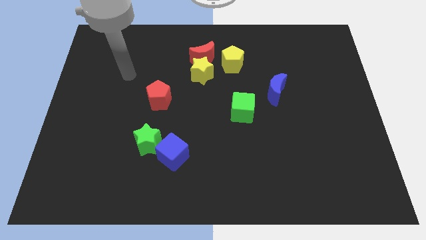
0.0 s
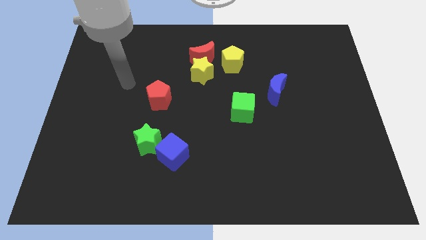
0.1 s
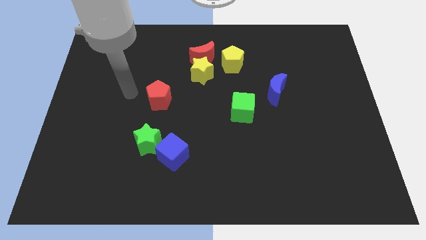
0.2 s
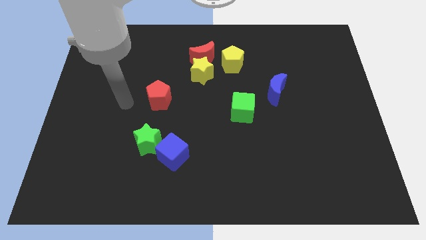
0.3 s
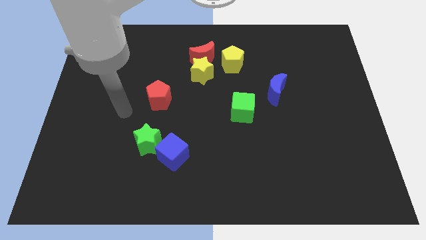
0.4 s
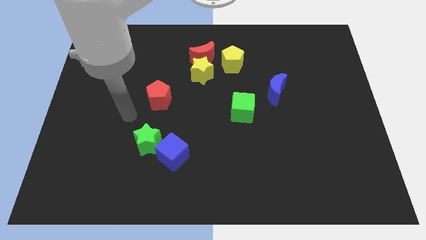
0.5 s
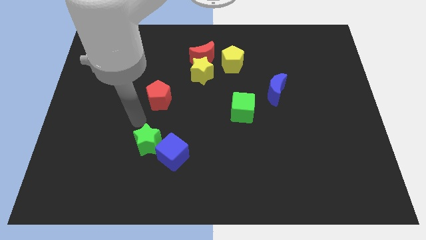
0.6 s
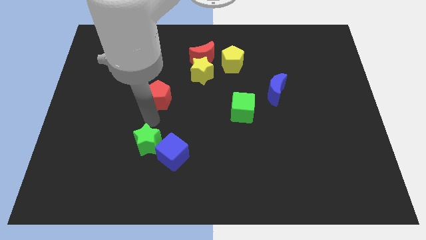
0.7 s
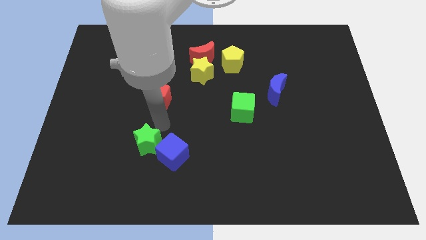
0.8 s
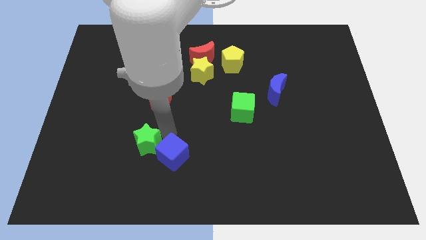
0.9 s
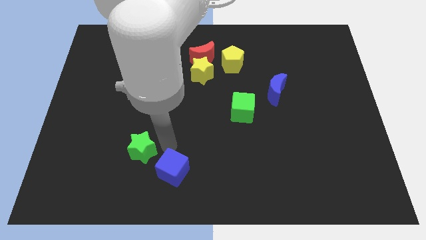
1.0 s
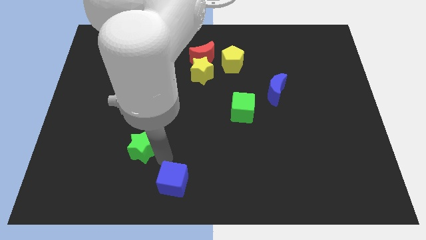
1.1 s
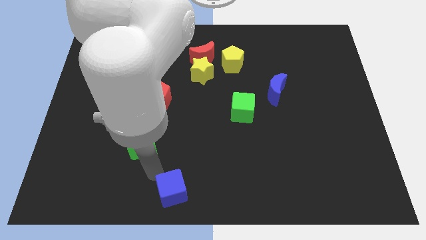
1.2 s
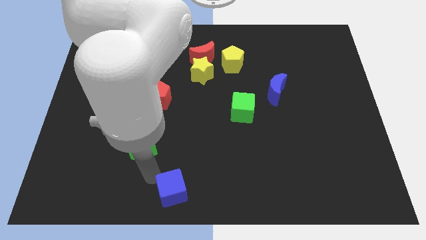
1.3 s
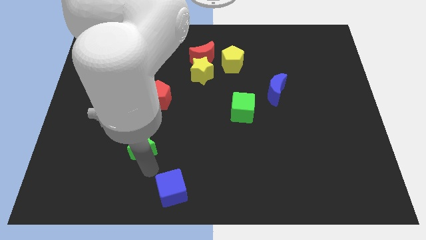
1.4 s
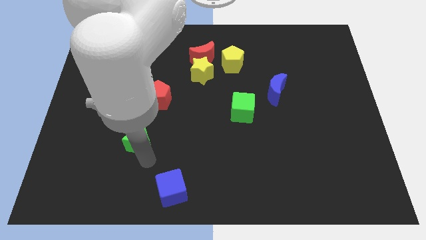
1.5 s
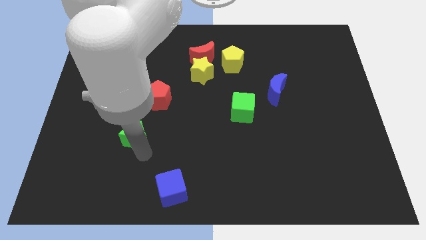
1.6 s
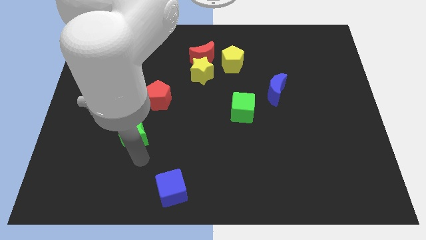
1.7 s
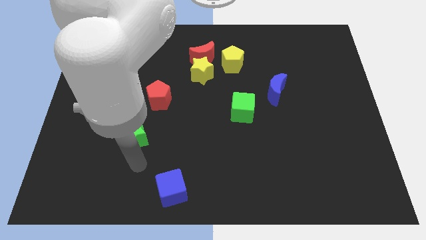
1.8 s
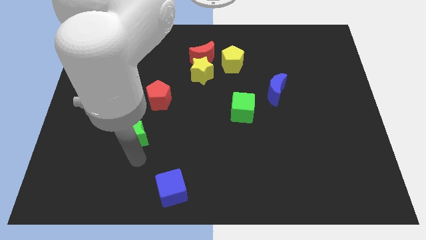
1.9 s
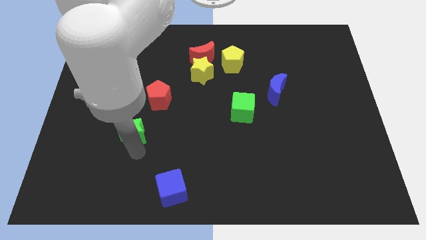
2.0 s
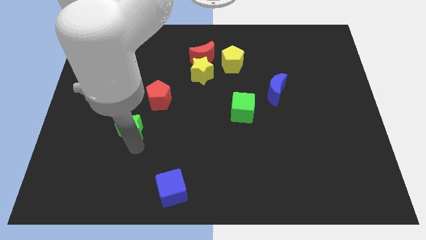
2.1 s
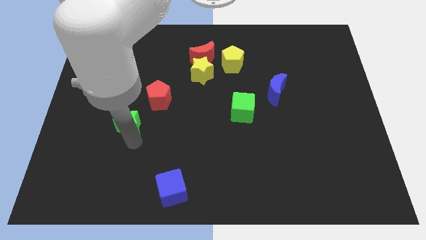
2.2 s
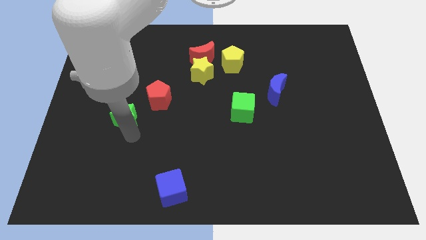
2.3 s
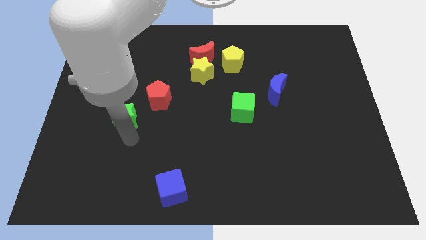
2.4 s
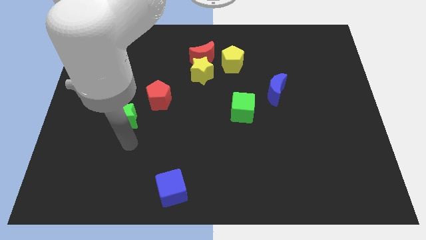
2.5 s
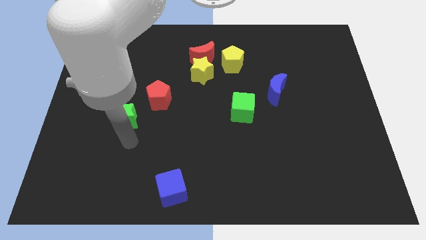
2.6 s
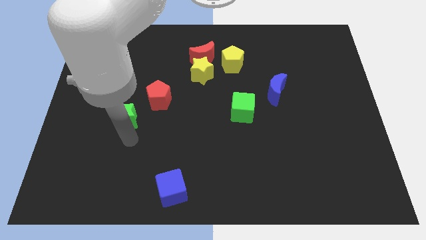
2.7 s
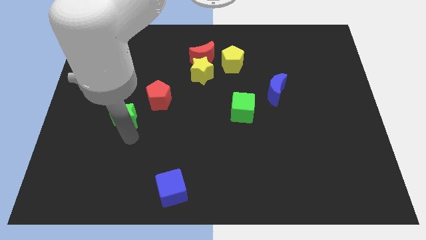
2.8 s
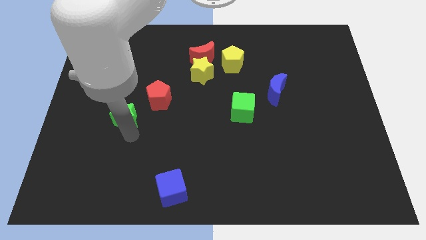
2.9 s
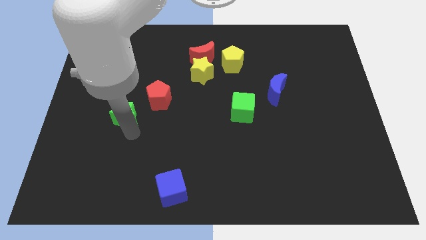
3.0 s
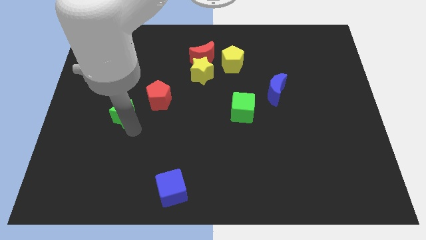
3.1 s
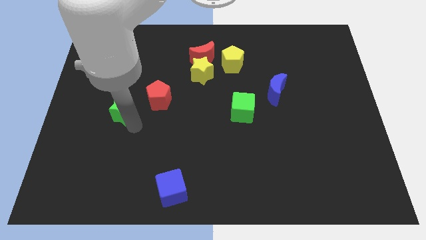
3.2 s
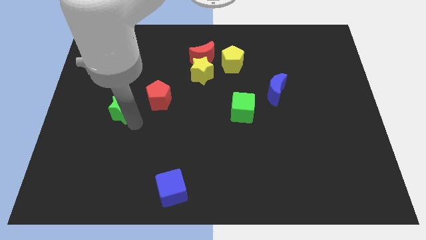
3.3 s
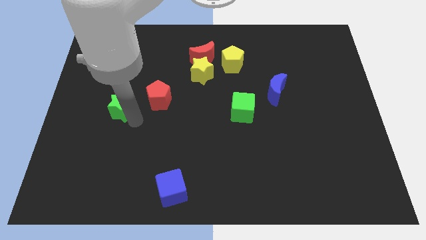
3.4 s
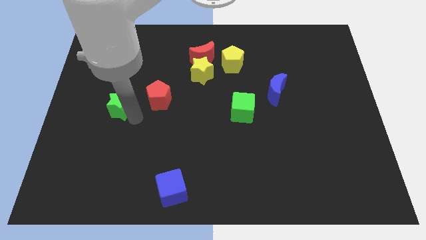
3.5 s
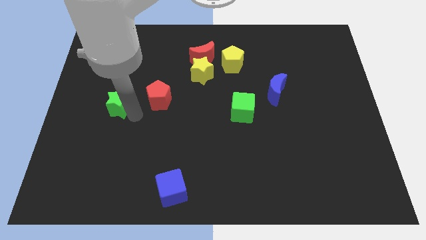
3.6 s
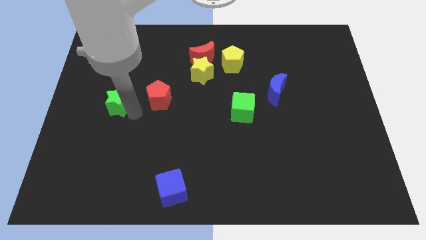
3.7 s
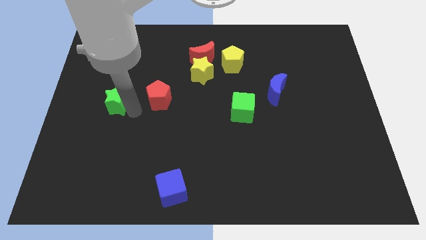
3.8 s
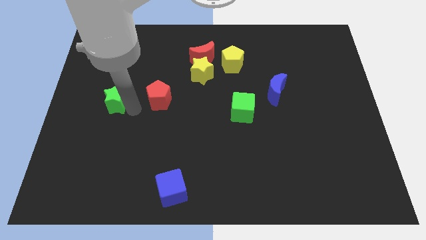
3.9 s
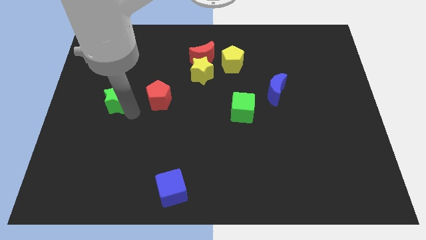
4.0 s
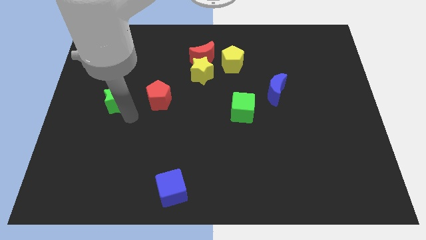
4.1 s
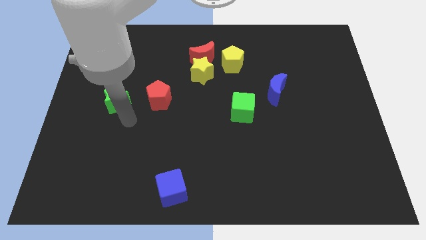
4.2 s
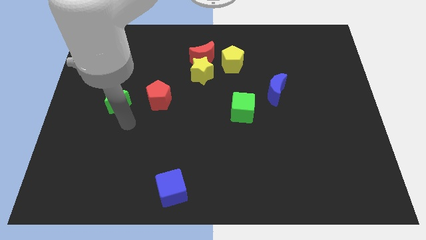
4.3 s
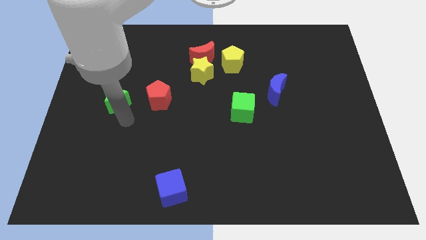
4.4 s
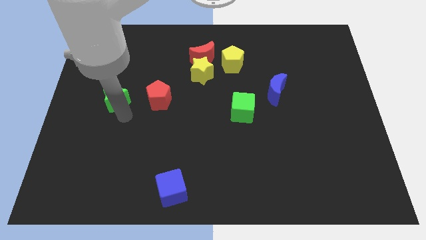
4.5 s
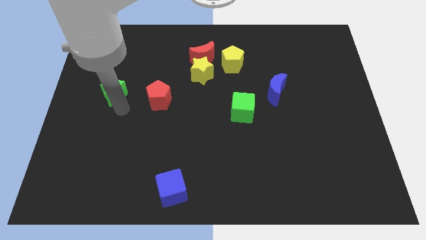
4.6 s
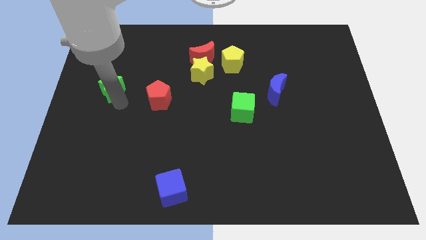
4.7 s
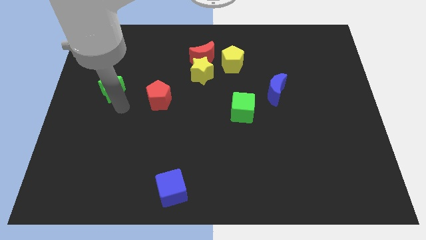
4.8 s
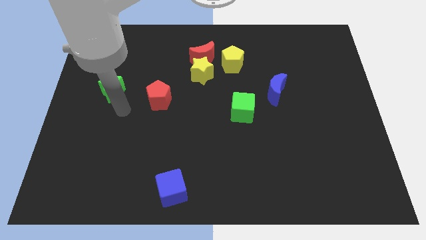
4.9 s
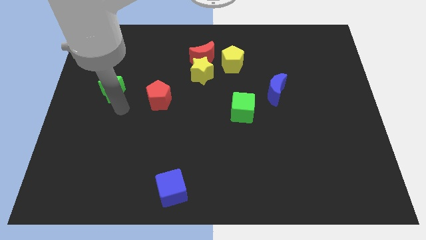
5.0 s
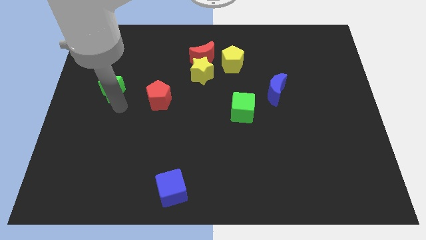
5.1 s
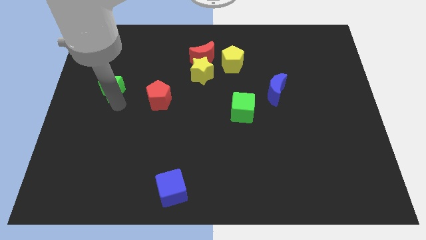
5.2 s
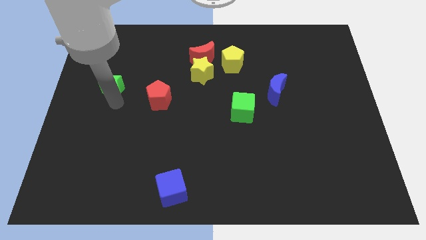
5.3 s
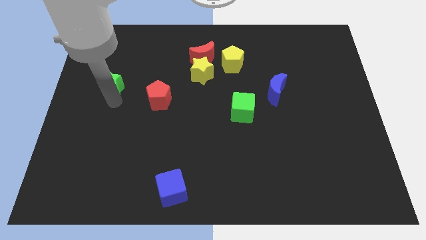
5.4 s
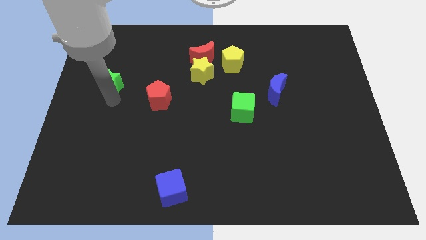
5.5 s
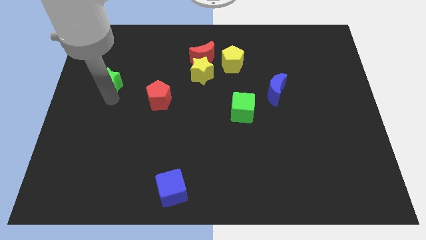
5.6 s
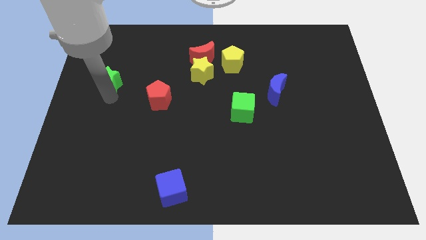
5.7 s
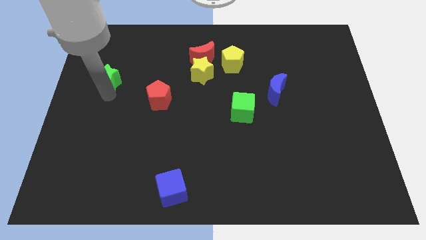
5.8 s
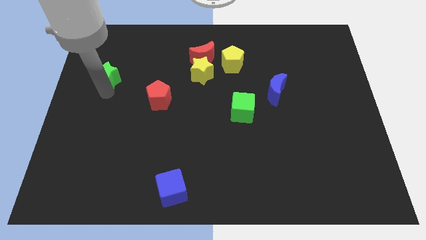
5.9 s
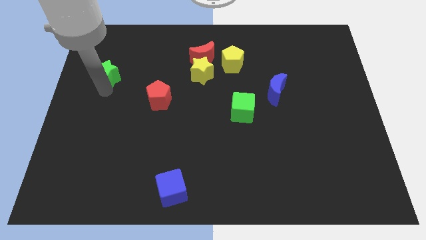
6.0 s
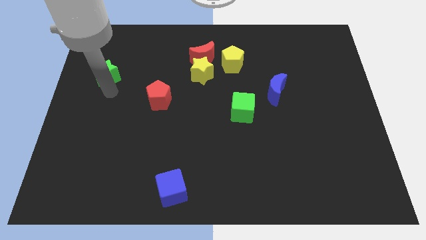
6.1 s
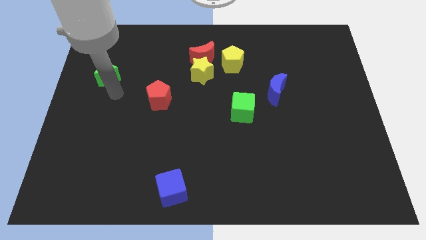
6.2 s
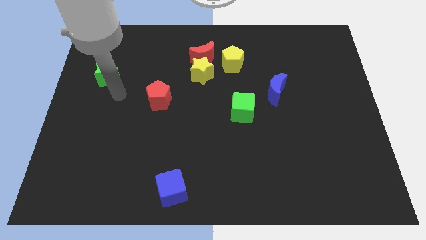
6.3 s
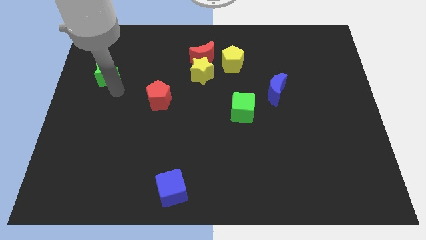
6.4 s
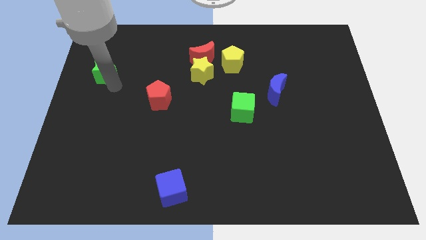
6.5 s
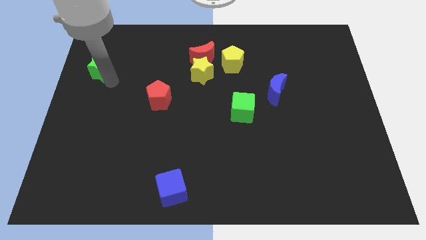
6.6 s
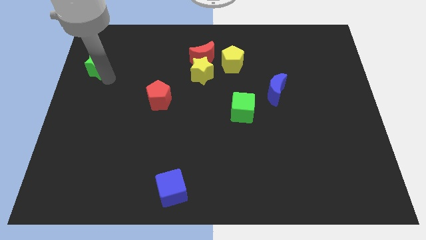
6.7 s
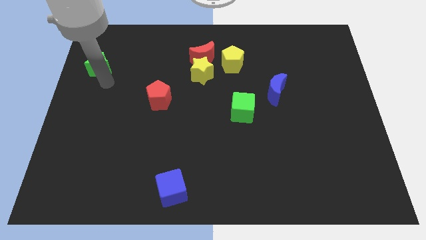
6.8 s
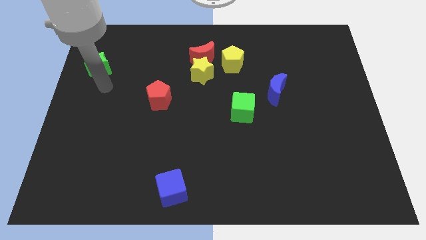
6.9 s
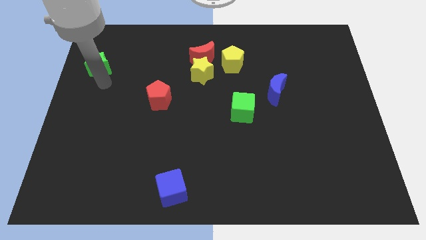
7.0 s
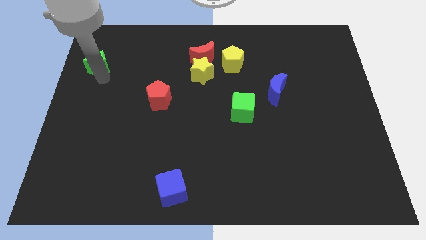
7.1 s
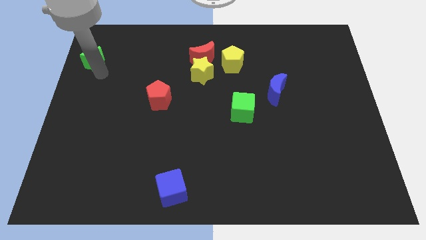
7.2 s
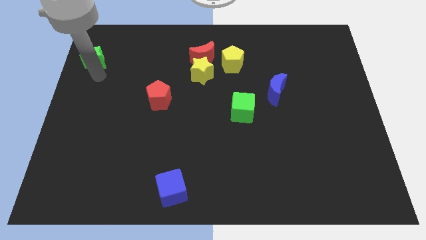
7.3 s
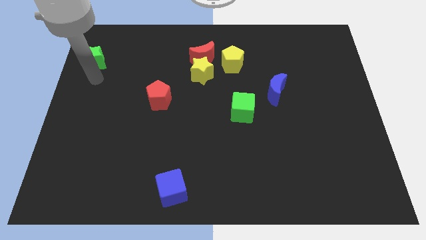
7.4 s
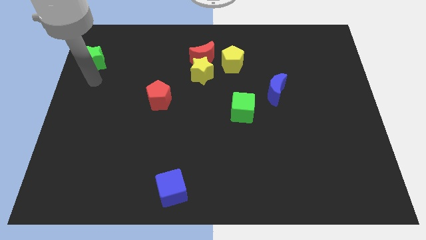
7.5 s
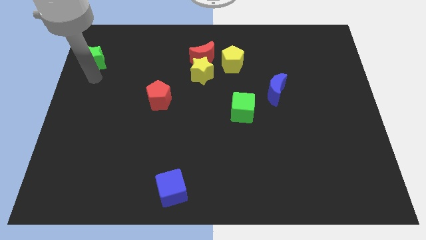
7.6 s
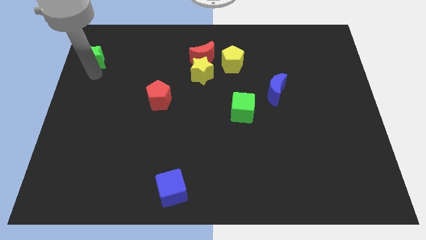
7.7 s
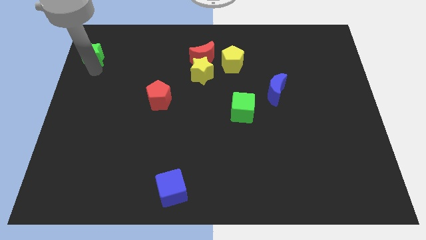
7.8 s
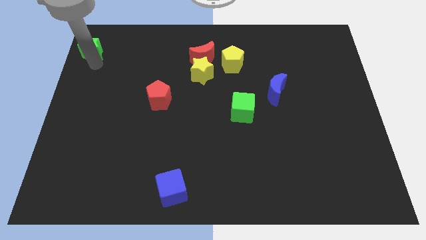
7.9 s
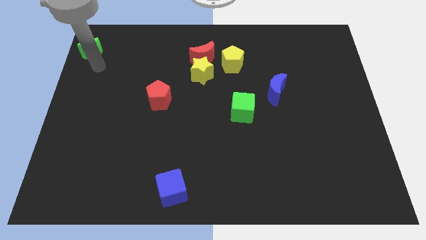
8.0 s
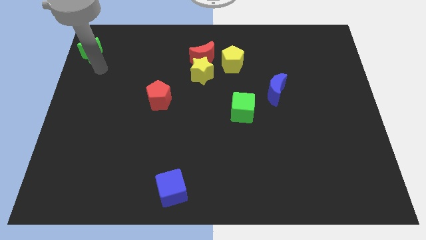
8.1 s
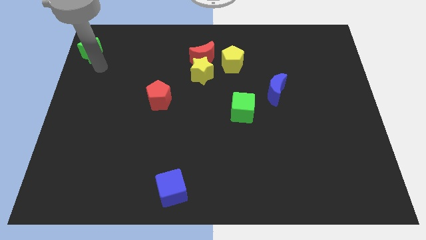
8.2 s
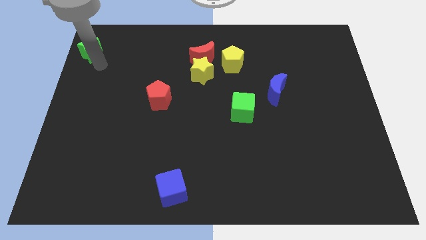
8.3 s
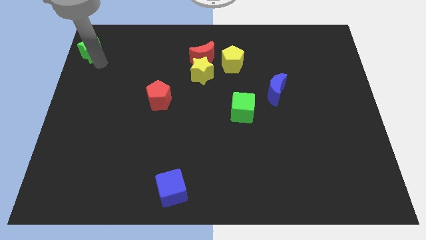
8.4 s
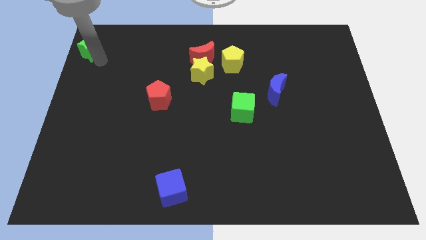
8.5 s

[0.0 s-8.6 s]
push the green star to the top left of the board
